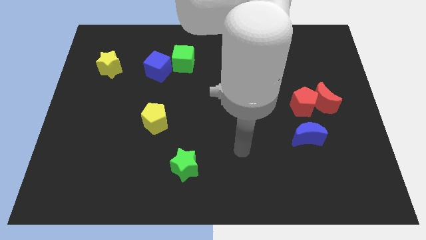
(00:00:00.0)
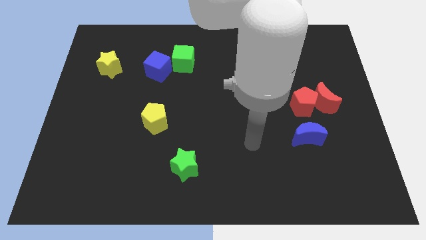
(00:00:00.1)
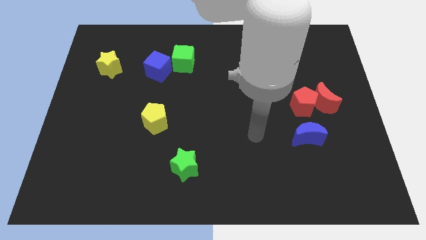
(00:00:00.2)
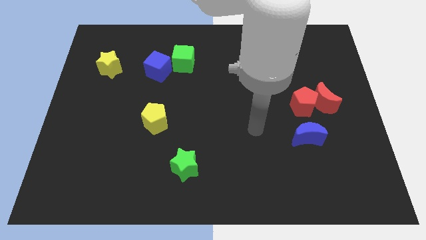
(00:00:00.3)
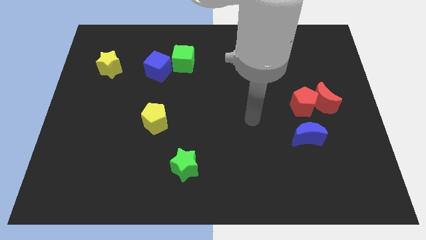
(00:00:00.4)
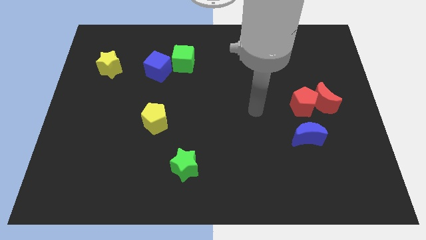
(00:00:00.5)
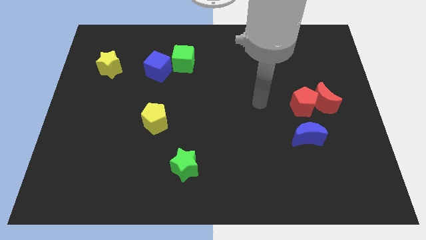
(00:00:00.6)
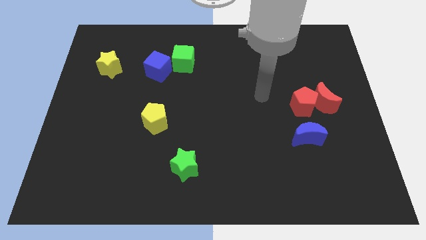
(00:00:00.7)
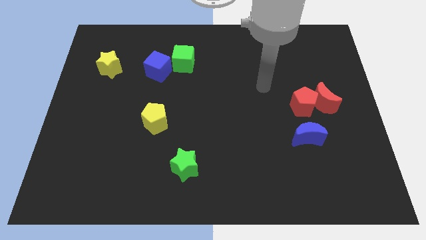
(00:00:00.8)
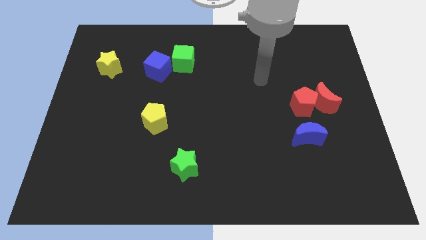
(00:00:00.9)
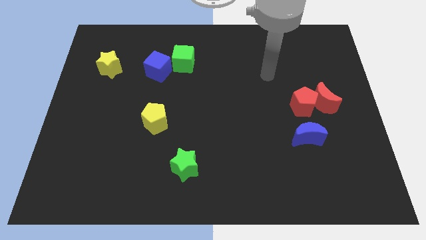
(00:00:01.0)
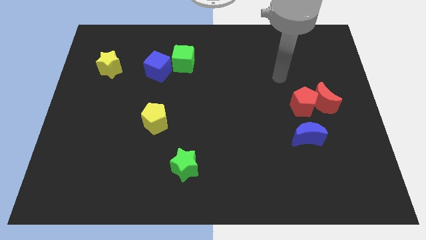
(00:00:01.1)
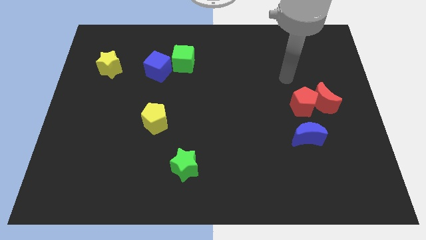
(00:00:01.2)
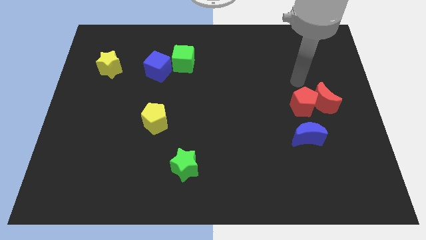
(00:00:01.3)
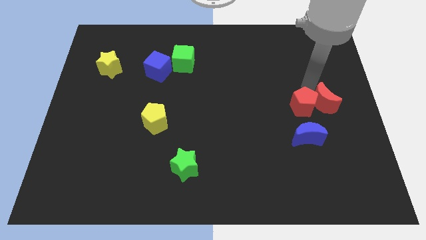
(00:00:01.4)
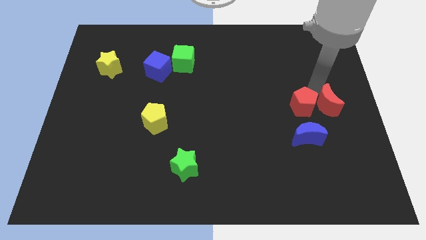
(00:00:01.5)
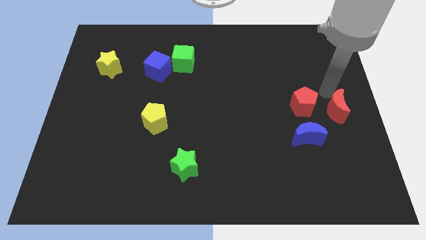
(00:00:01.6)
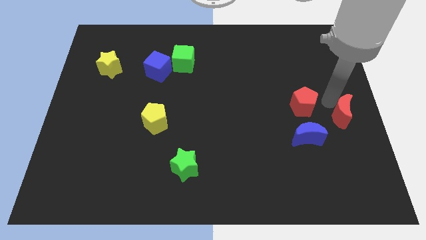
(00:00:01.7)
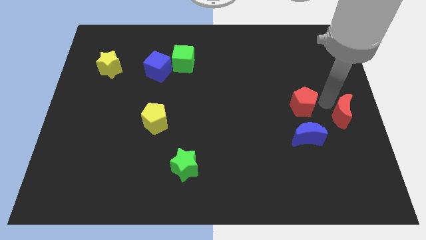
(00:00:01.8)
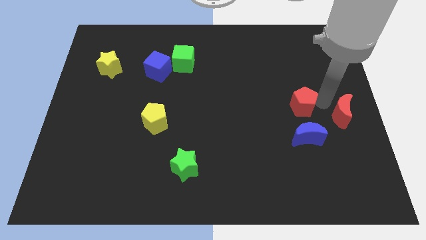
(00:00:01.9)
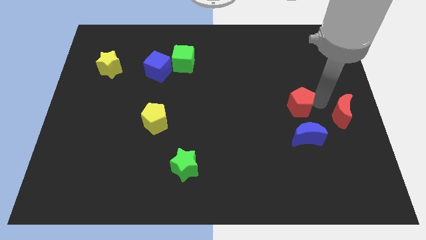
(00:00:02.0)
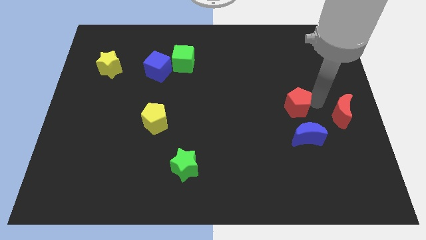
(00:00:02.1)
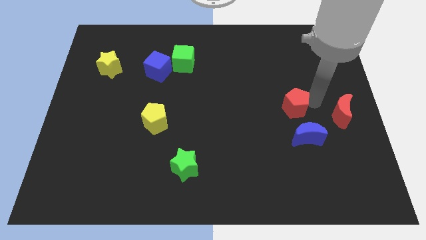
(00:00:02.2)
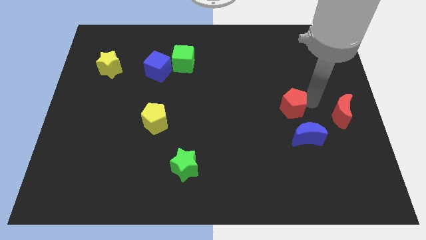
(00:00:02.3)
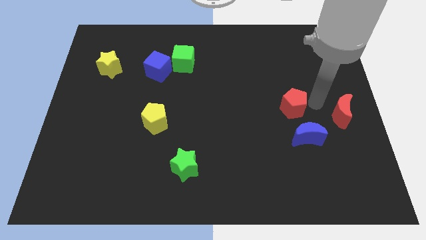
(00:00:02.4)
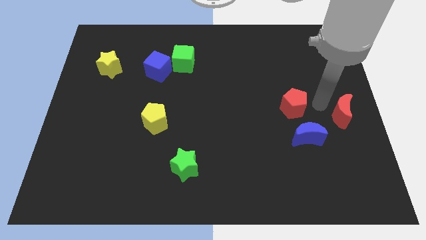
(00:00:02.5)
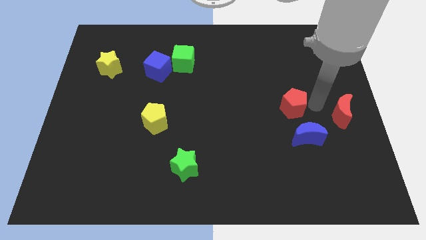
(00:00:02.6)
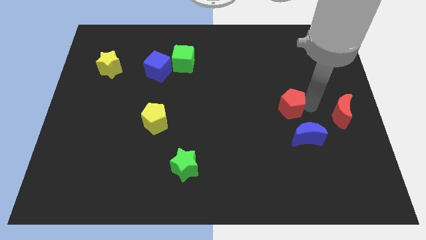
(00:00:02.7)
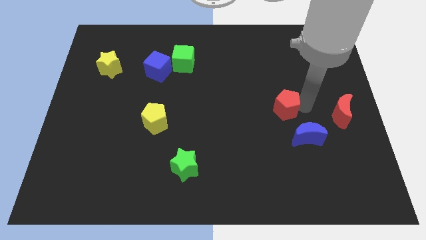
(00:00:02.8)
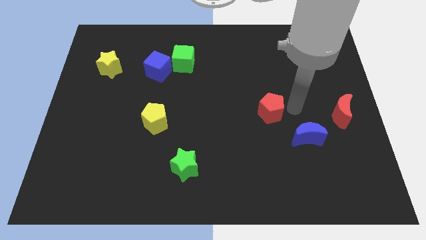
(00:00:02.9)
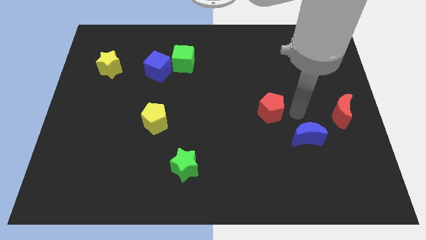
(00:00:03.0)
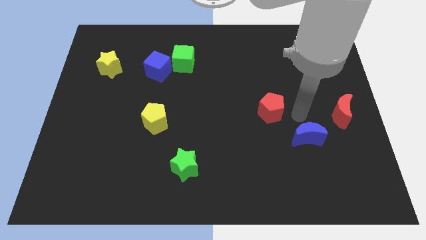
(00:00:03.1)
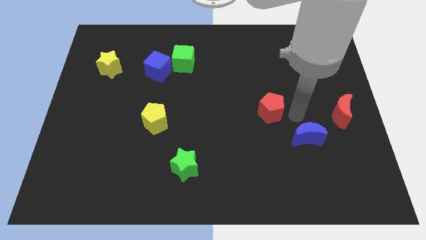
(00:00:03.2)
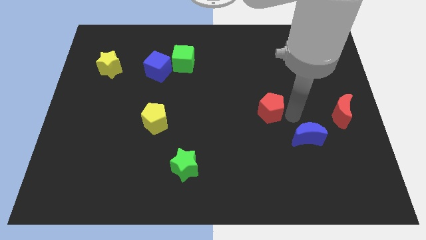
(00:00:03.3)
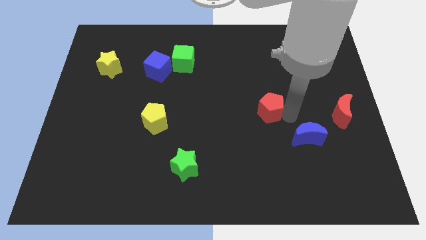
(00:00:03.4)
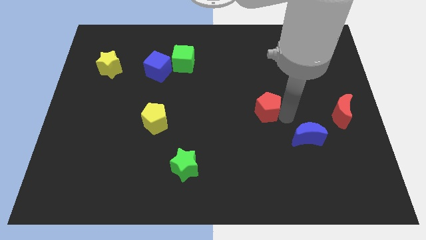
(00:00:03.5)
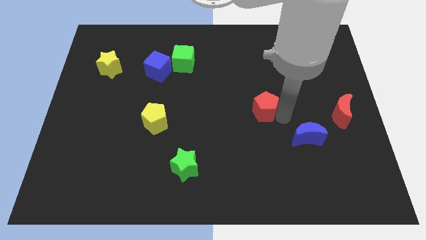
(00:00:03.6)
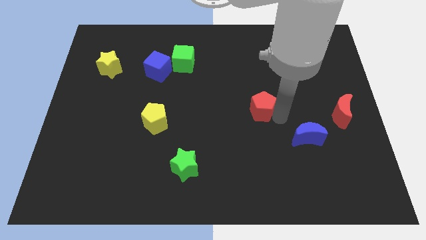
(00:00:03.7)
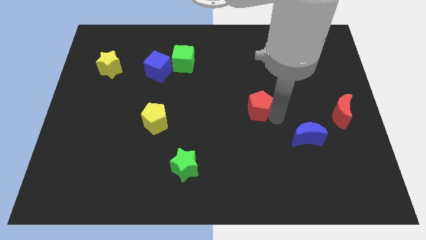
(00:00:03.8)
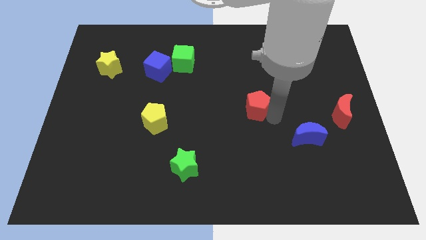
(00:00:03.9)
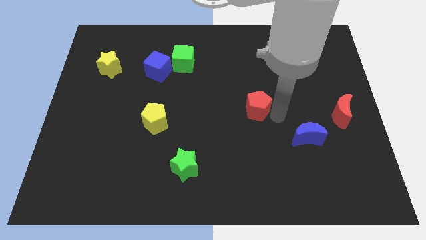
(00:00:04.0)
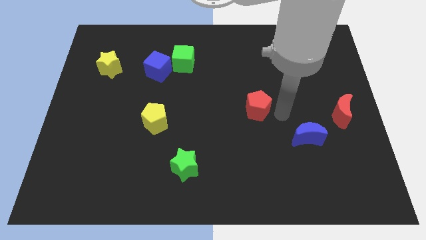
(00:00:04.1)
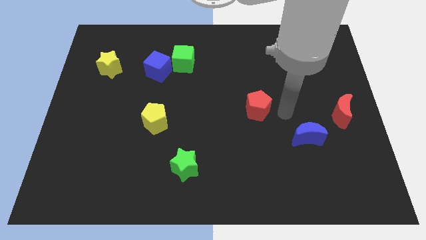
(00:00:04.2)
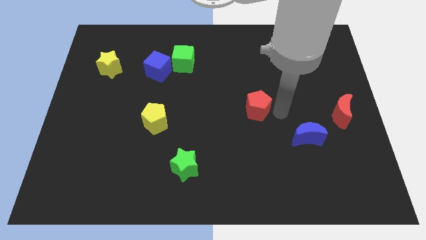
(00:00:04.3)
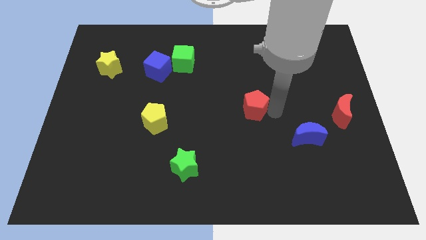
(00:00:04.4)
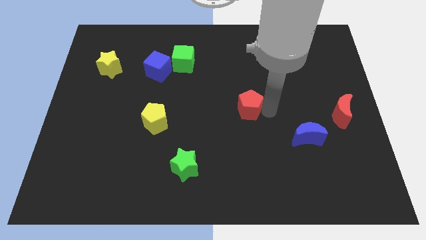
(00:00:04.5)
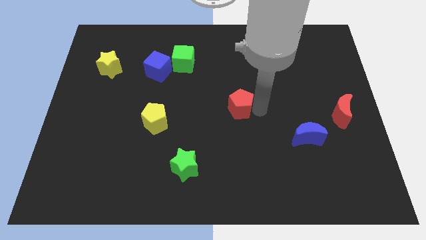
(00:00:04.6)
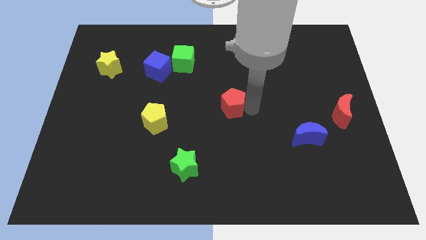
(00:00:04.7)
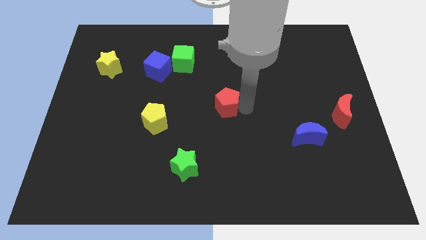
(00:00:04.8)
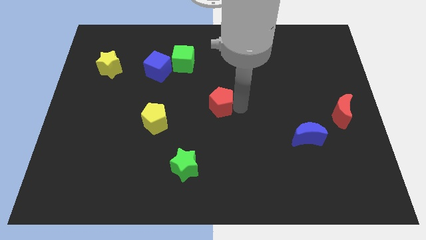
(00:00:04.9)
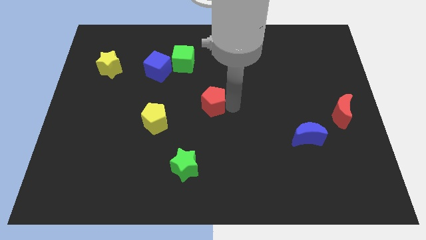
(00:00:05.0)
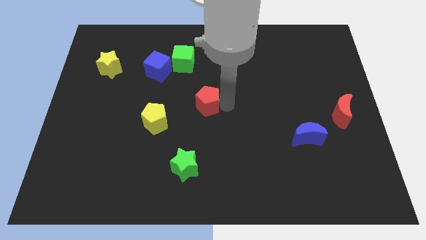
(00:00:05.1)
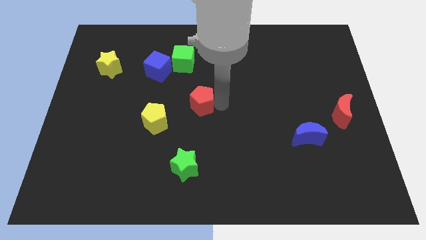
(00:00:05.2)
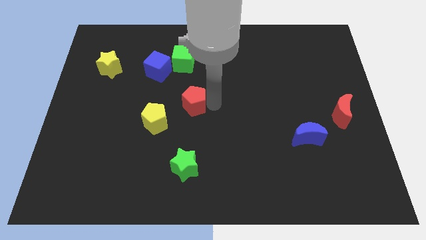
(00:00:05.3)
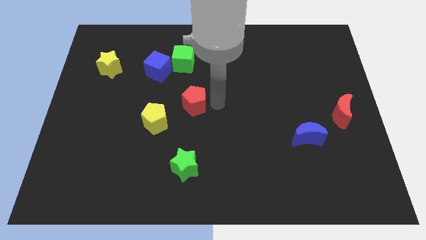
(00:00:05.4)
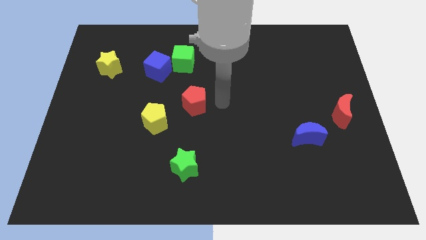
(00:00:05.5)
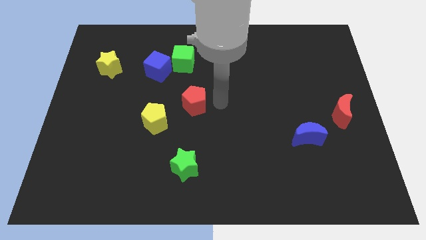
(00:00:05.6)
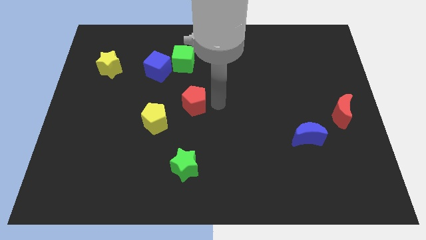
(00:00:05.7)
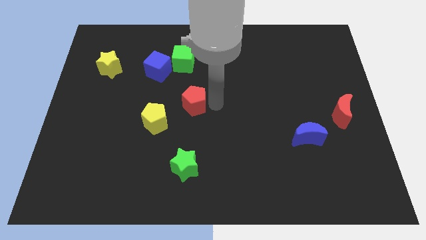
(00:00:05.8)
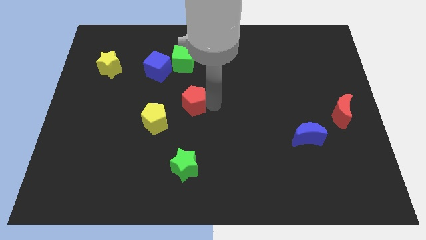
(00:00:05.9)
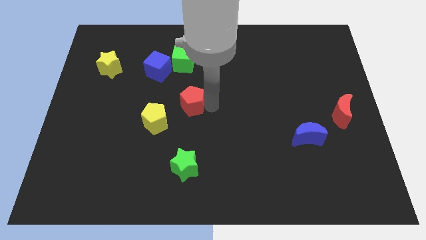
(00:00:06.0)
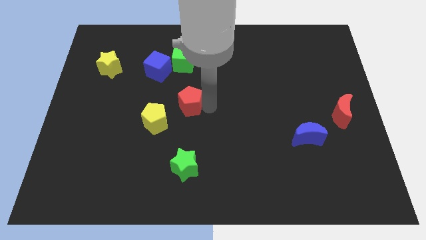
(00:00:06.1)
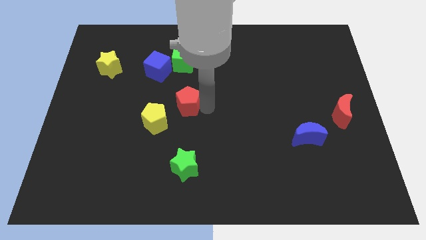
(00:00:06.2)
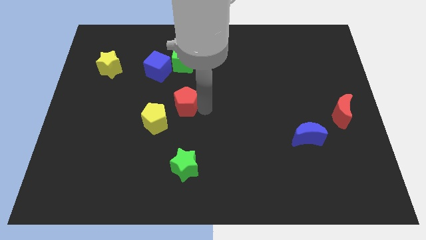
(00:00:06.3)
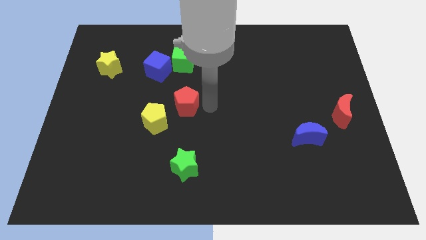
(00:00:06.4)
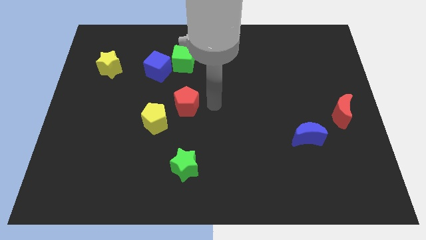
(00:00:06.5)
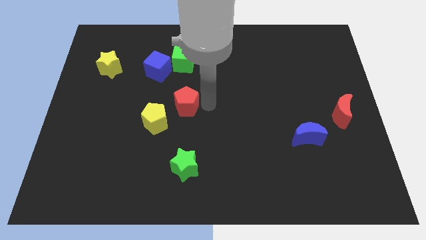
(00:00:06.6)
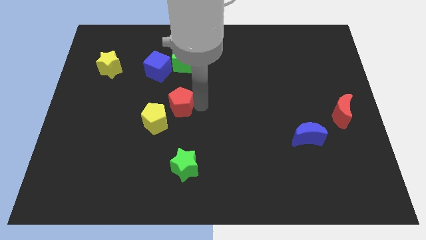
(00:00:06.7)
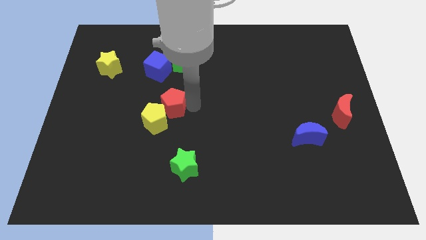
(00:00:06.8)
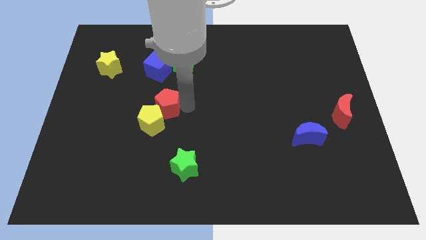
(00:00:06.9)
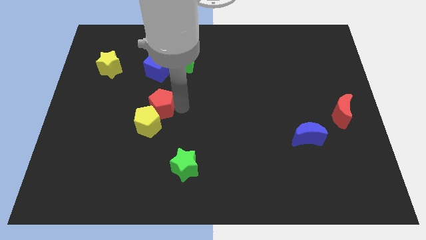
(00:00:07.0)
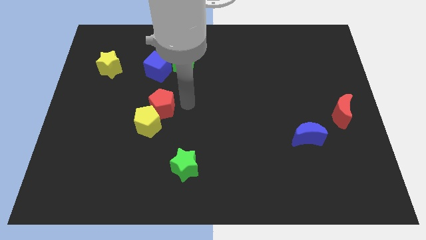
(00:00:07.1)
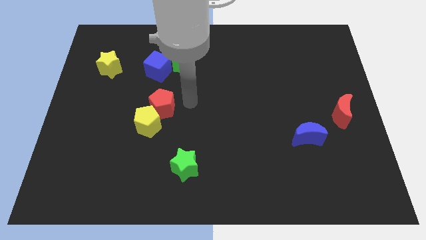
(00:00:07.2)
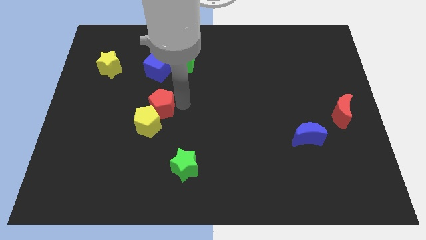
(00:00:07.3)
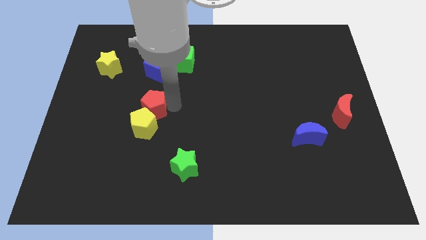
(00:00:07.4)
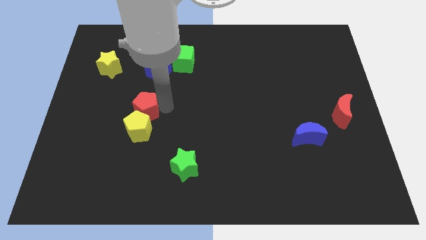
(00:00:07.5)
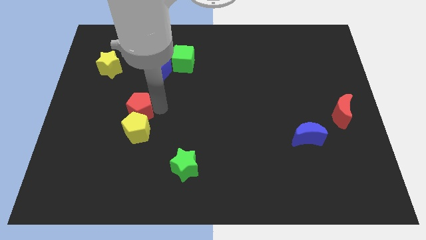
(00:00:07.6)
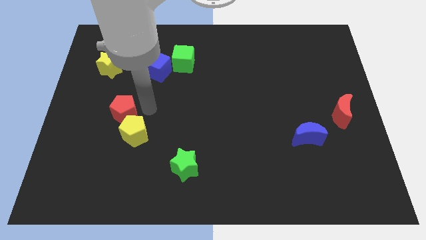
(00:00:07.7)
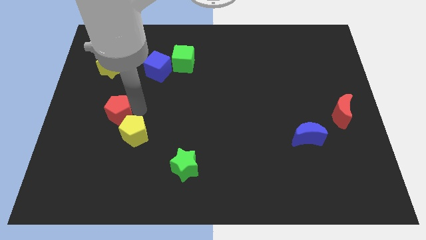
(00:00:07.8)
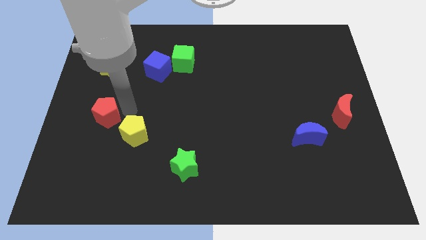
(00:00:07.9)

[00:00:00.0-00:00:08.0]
move the red pentagon left of the yellow pentagon
